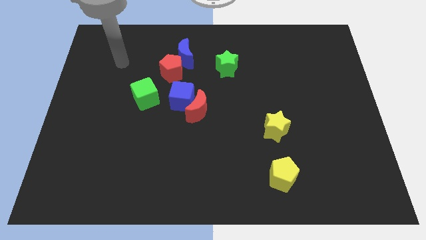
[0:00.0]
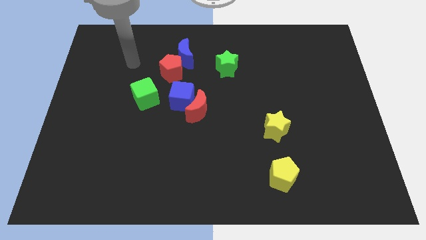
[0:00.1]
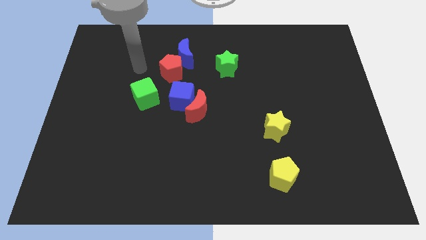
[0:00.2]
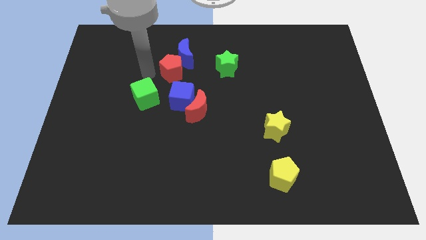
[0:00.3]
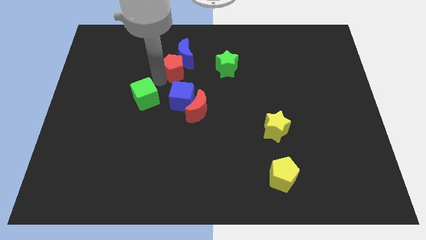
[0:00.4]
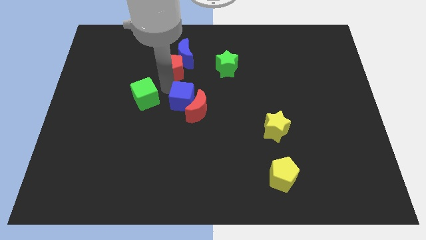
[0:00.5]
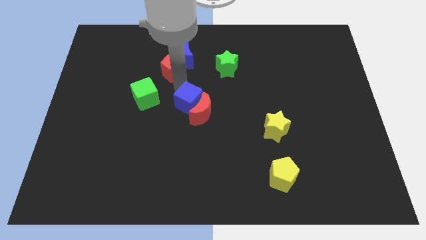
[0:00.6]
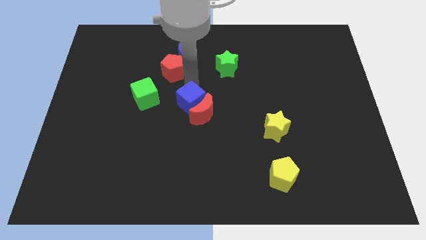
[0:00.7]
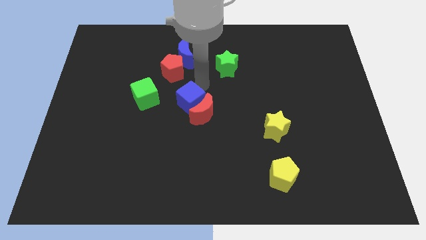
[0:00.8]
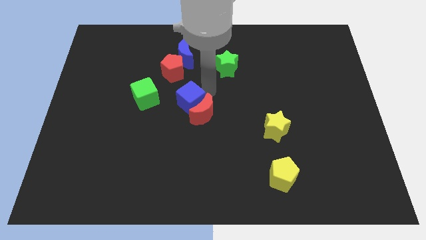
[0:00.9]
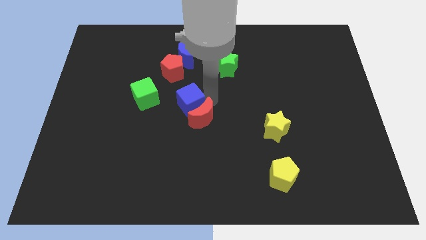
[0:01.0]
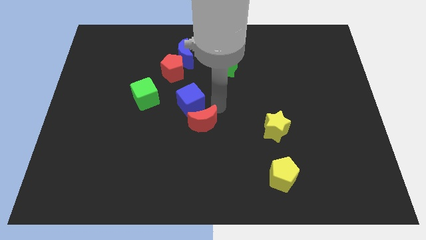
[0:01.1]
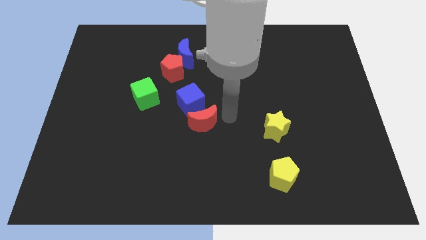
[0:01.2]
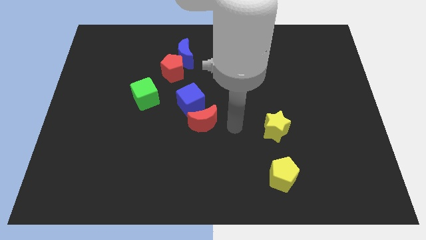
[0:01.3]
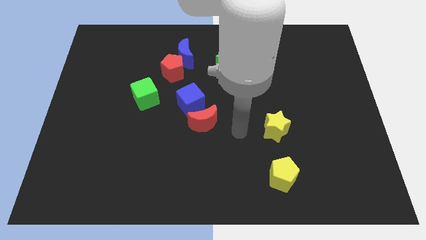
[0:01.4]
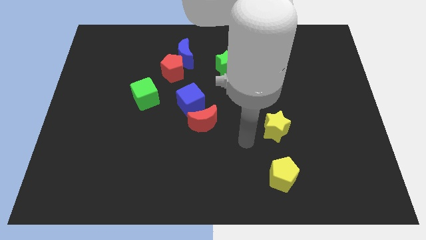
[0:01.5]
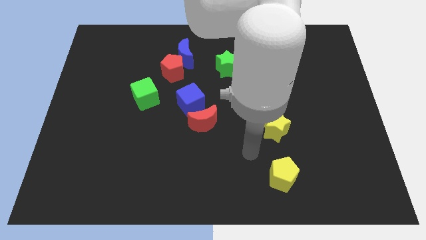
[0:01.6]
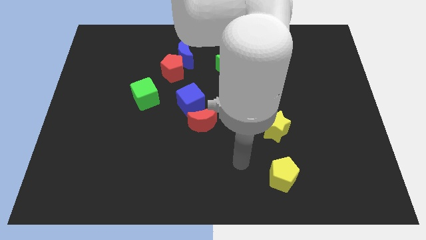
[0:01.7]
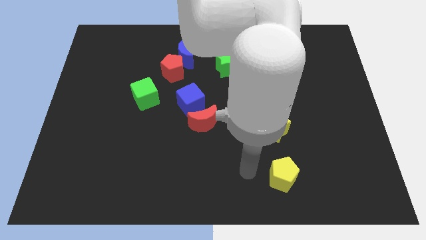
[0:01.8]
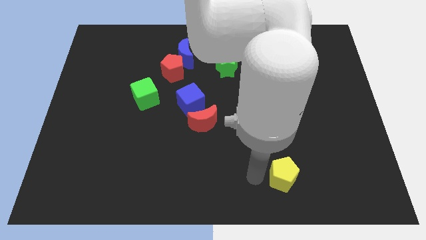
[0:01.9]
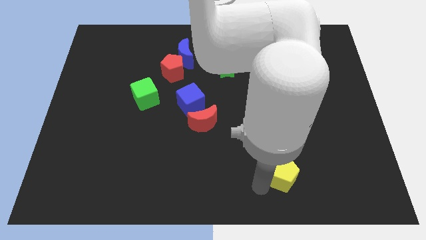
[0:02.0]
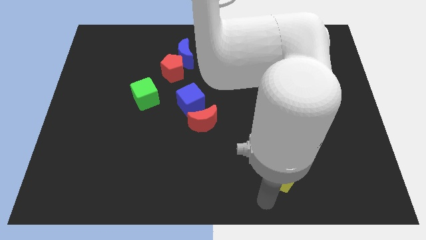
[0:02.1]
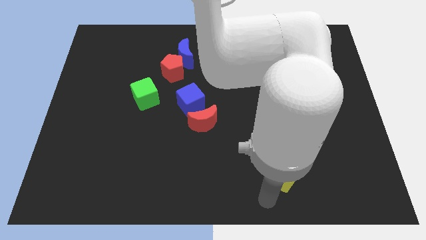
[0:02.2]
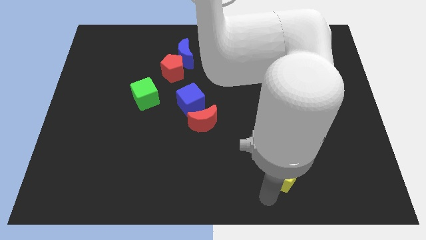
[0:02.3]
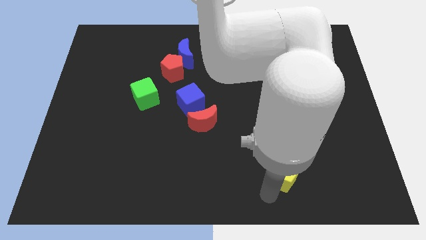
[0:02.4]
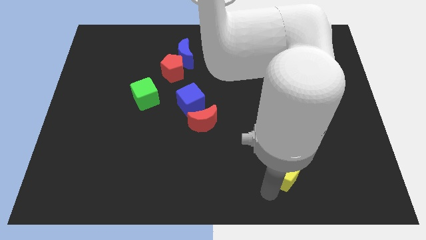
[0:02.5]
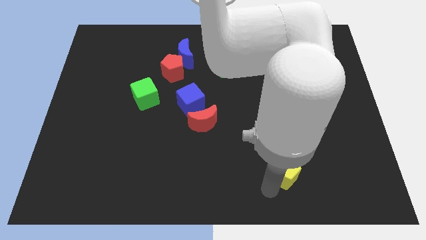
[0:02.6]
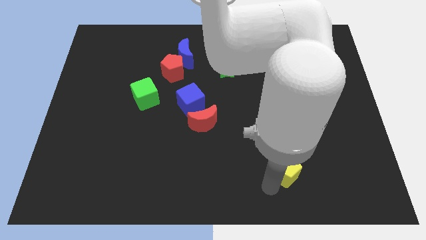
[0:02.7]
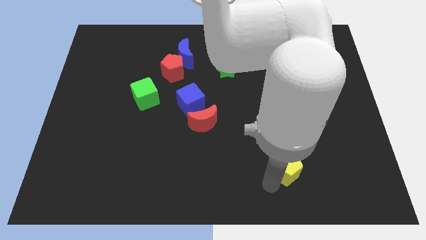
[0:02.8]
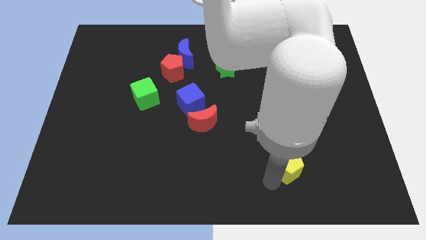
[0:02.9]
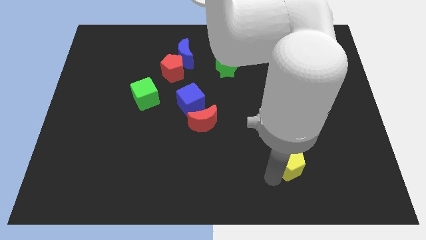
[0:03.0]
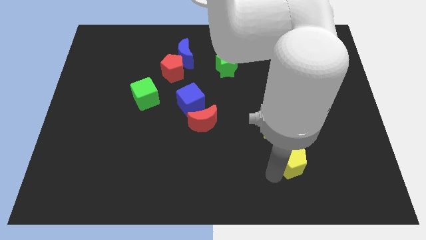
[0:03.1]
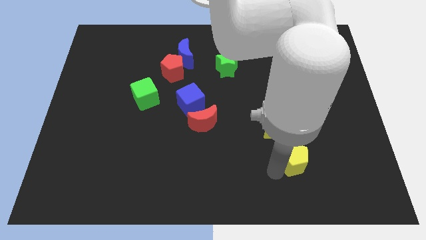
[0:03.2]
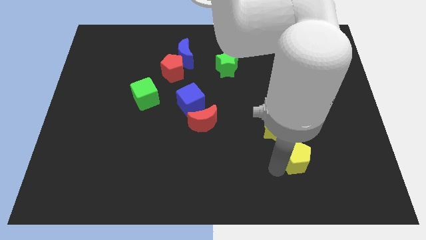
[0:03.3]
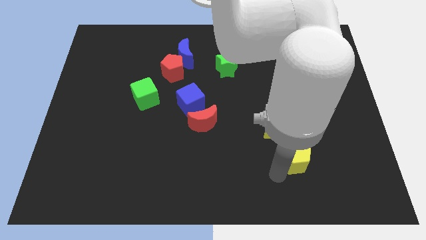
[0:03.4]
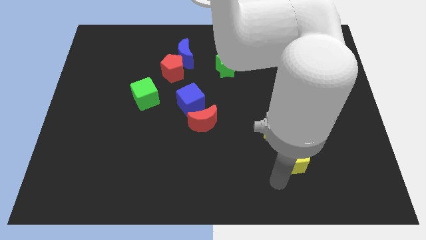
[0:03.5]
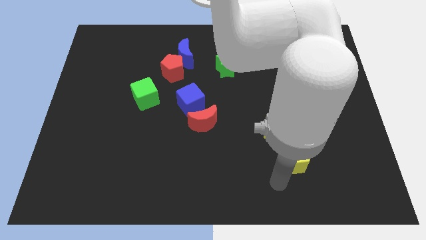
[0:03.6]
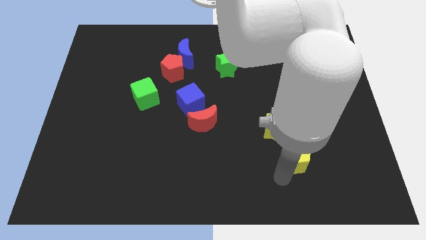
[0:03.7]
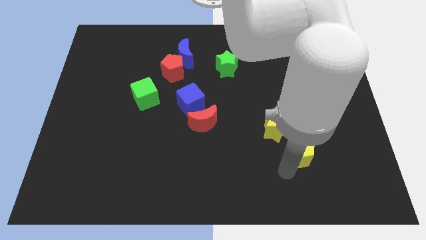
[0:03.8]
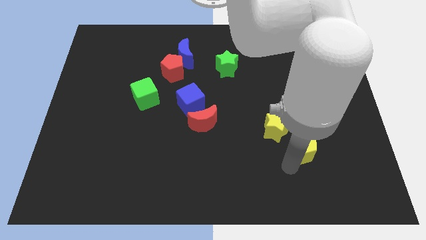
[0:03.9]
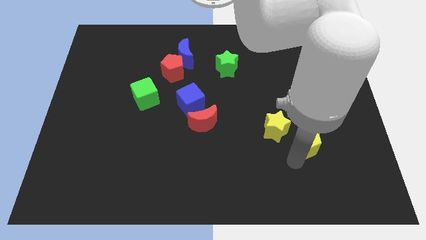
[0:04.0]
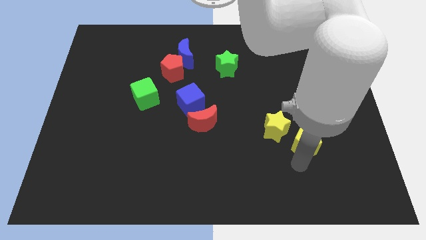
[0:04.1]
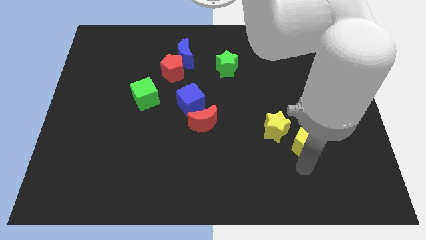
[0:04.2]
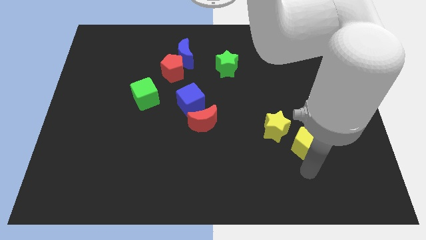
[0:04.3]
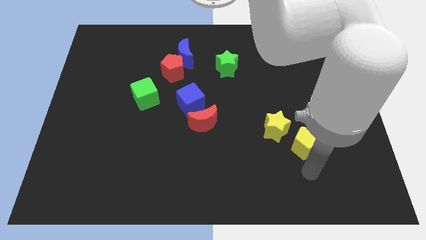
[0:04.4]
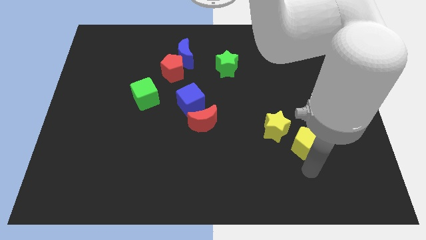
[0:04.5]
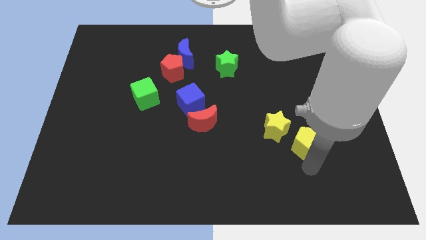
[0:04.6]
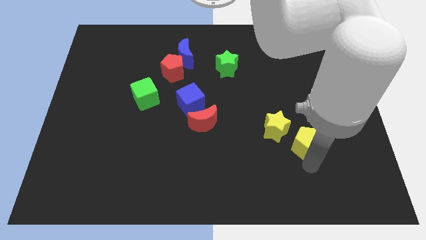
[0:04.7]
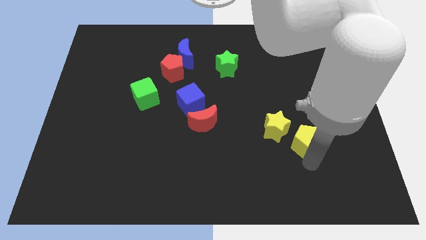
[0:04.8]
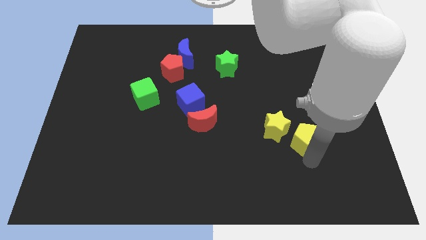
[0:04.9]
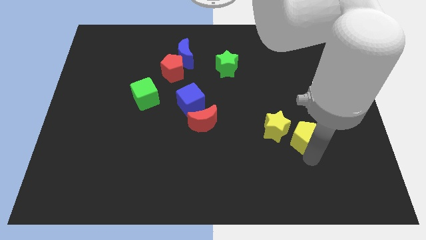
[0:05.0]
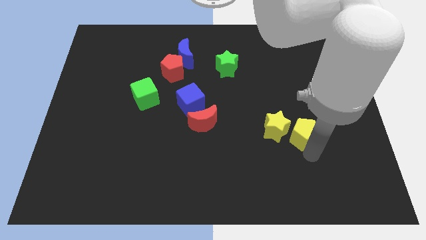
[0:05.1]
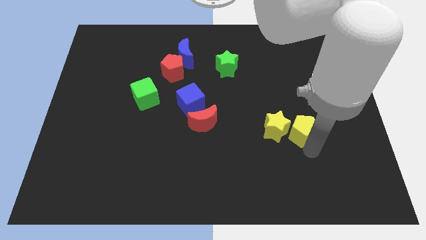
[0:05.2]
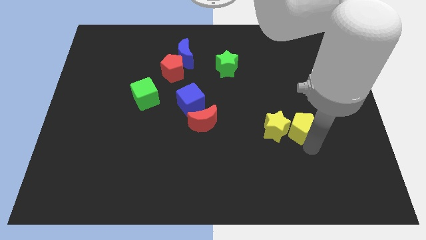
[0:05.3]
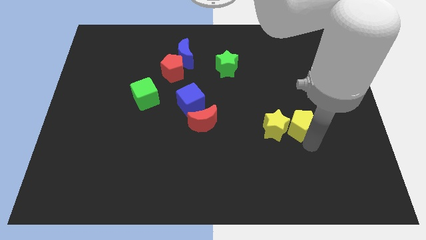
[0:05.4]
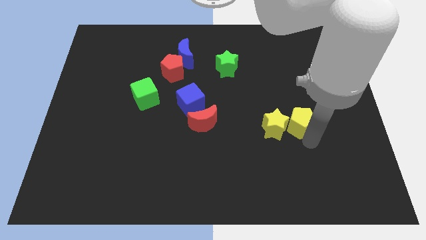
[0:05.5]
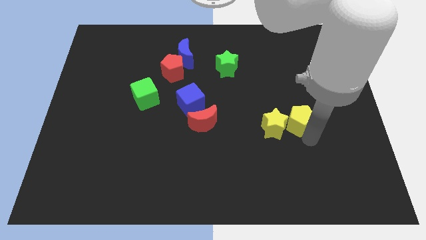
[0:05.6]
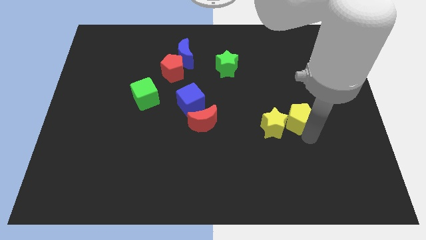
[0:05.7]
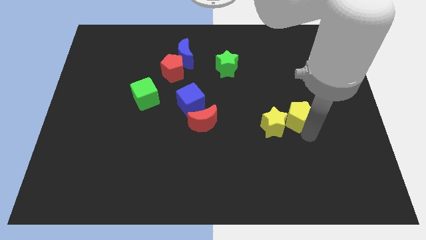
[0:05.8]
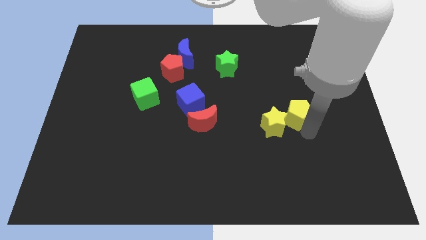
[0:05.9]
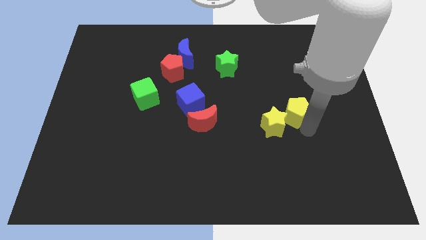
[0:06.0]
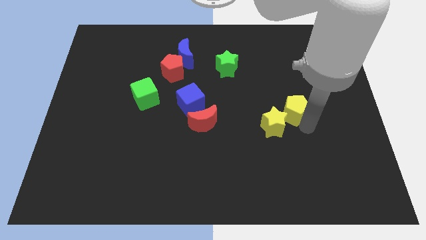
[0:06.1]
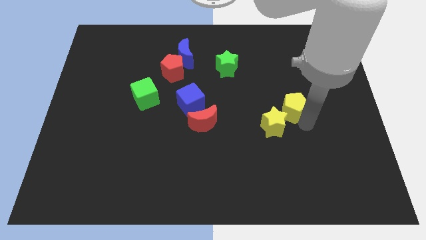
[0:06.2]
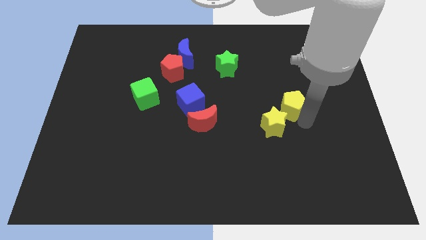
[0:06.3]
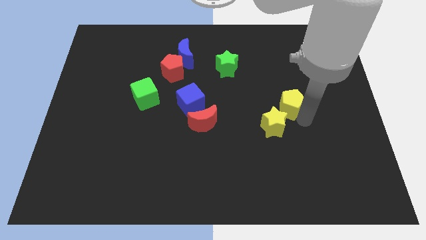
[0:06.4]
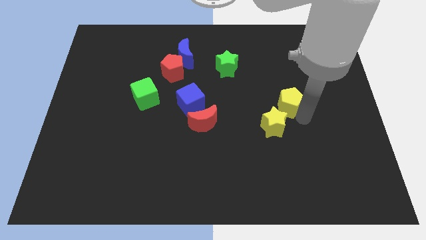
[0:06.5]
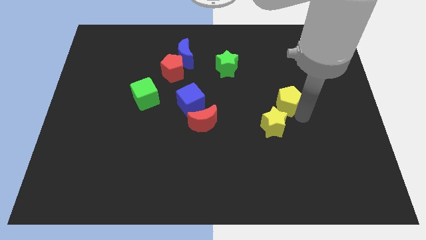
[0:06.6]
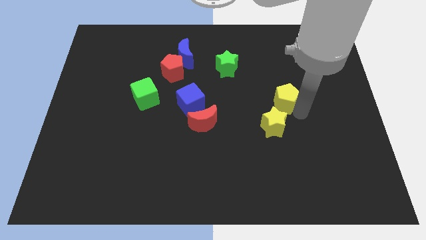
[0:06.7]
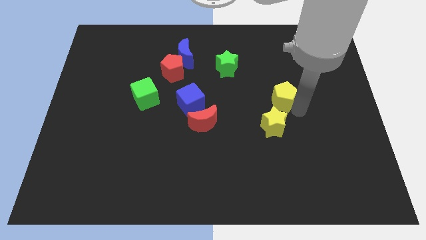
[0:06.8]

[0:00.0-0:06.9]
slide the yellow pentagon up

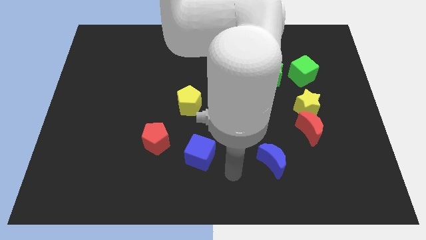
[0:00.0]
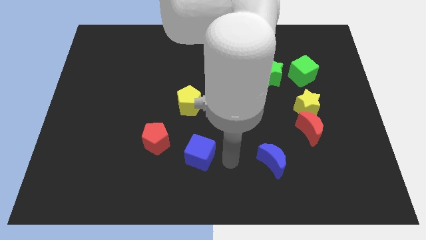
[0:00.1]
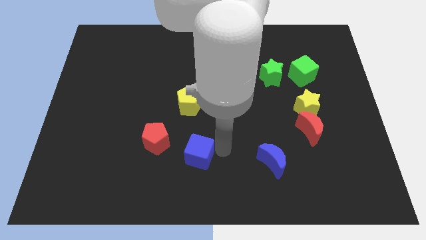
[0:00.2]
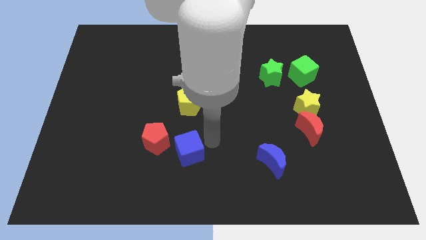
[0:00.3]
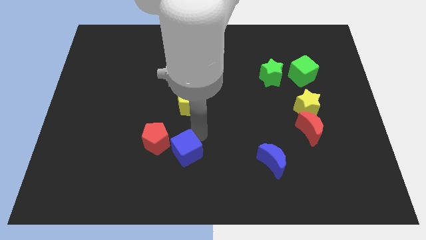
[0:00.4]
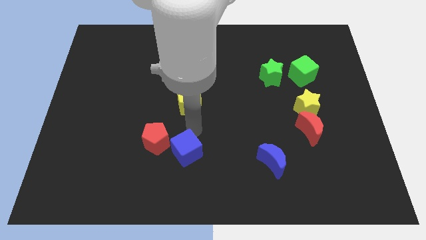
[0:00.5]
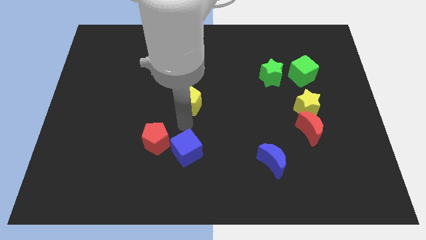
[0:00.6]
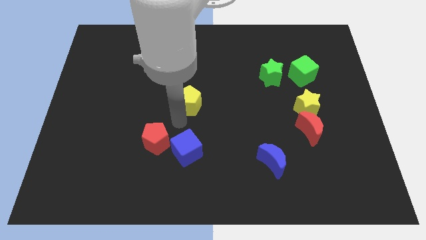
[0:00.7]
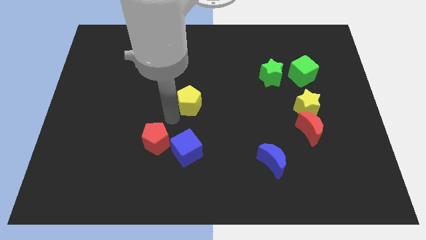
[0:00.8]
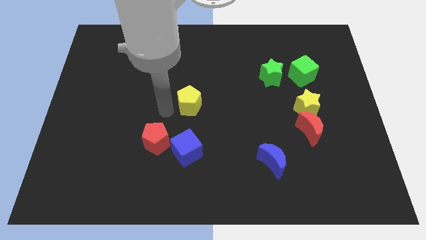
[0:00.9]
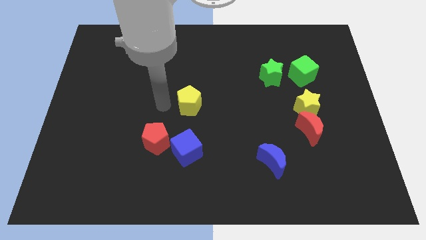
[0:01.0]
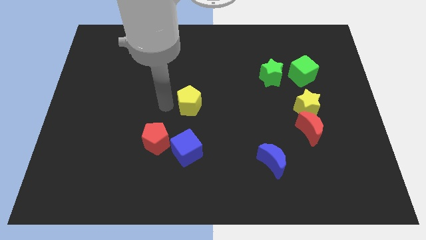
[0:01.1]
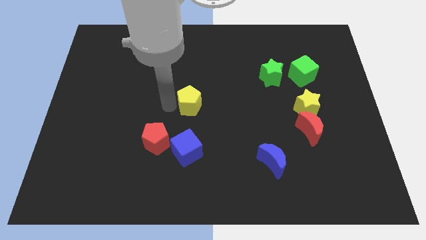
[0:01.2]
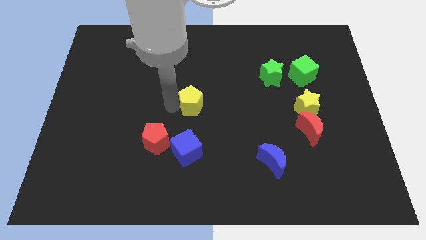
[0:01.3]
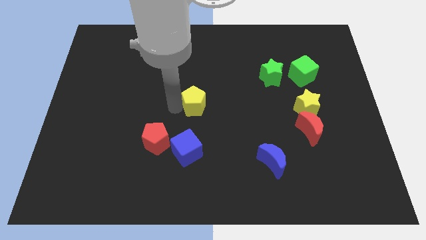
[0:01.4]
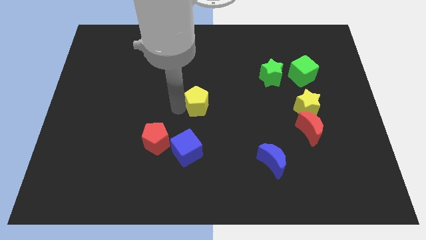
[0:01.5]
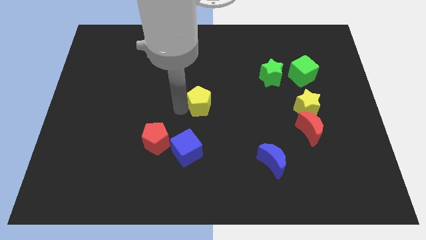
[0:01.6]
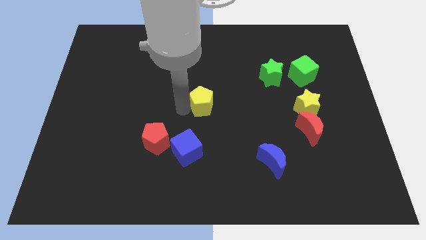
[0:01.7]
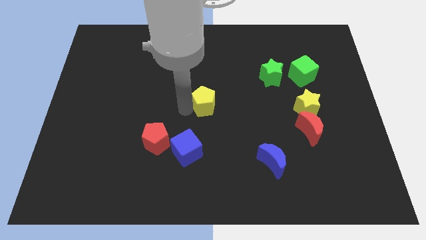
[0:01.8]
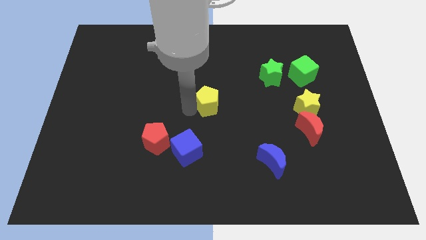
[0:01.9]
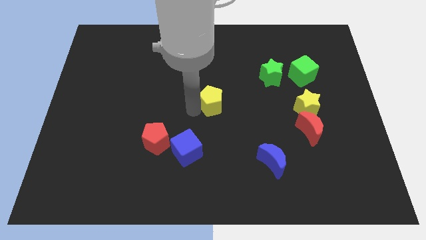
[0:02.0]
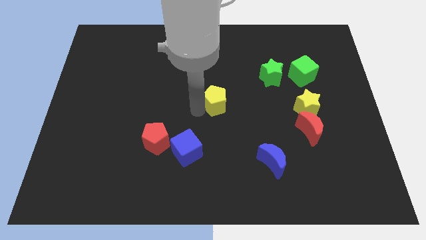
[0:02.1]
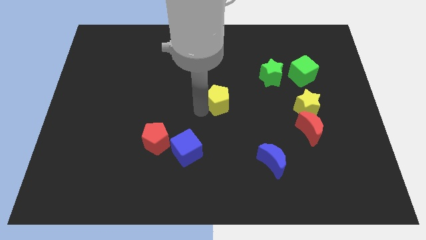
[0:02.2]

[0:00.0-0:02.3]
slide the yellow pentagon a bit right
